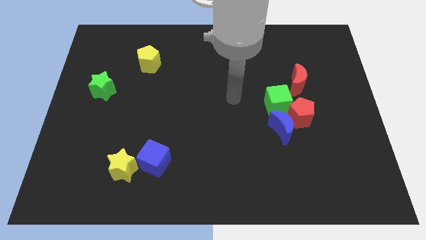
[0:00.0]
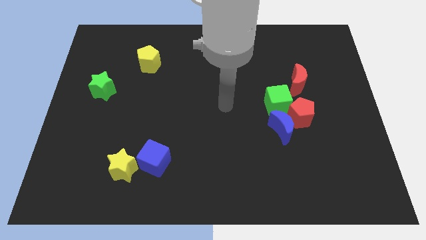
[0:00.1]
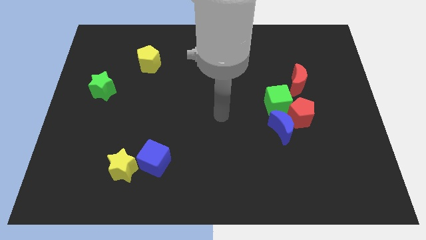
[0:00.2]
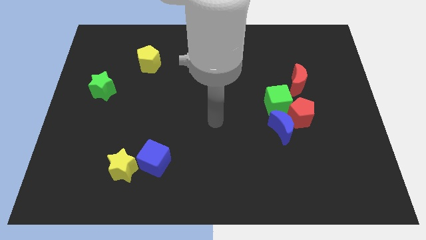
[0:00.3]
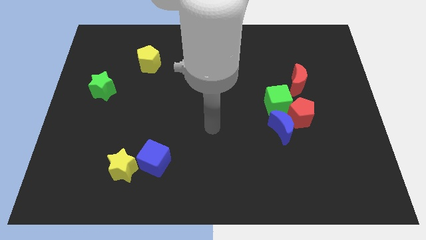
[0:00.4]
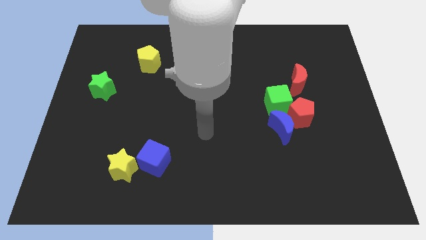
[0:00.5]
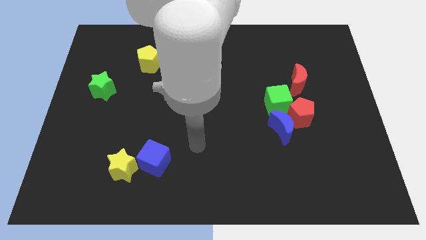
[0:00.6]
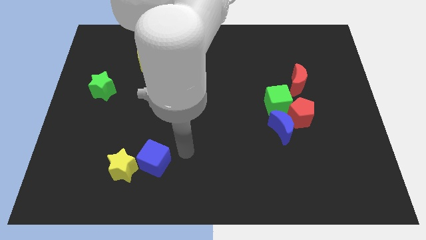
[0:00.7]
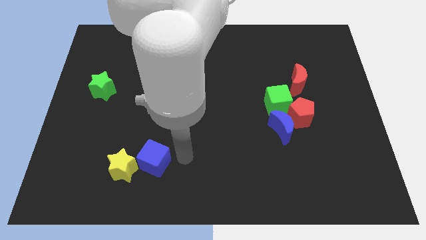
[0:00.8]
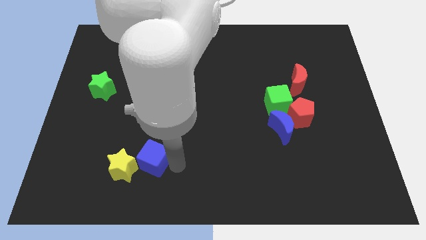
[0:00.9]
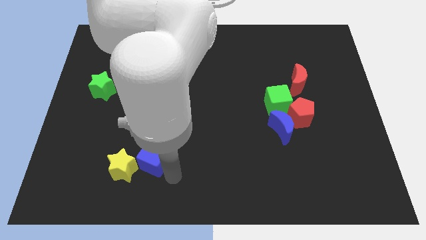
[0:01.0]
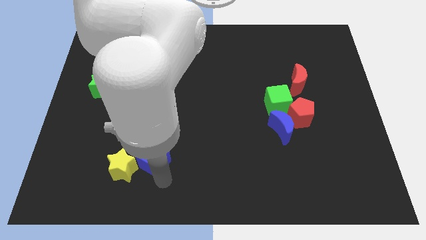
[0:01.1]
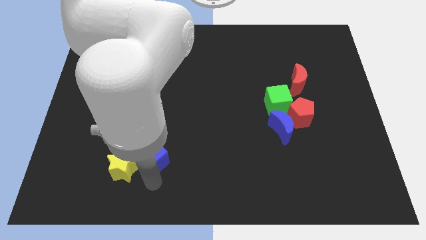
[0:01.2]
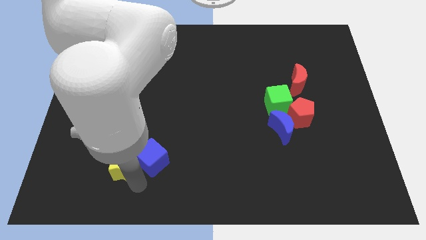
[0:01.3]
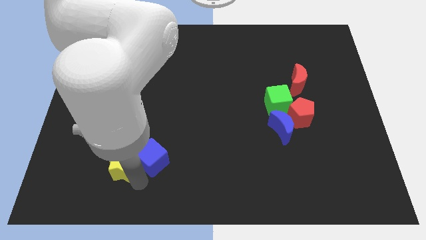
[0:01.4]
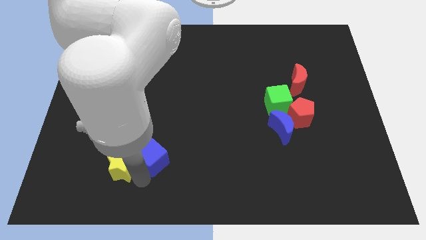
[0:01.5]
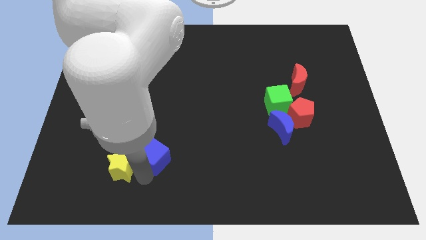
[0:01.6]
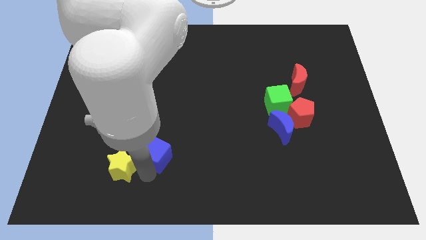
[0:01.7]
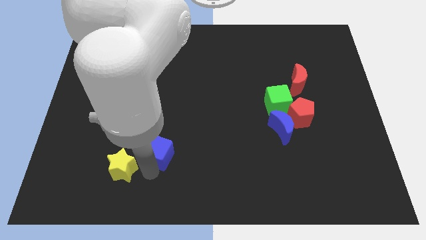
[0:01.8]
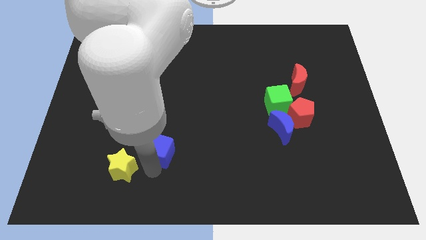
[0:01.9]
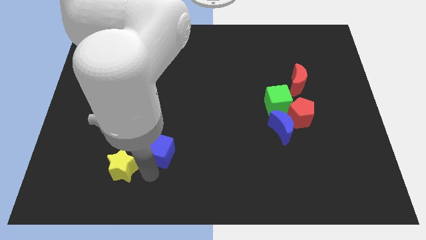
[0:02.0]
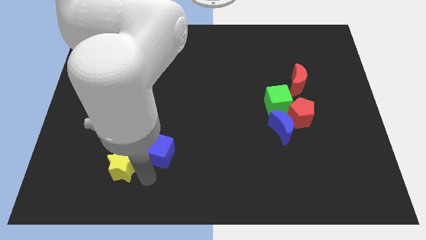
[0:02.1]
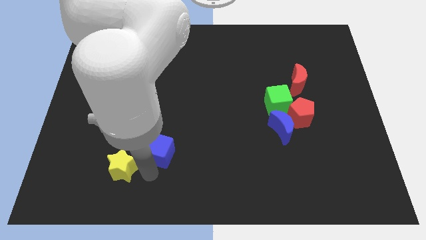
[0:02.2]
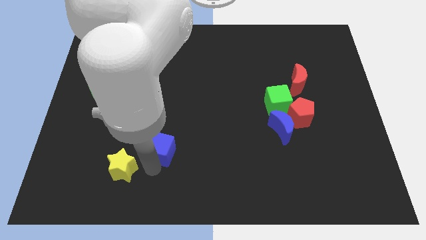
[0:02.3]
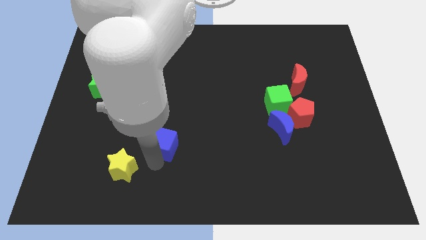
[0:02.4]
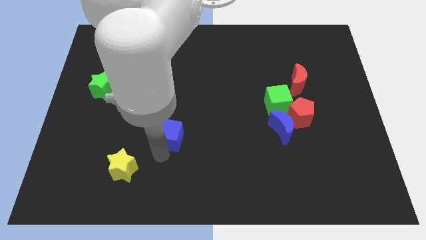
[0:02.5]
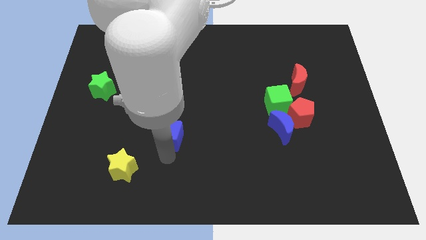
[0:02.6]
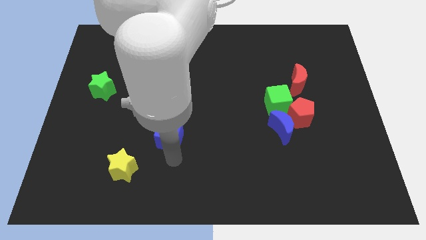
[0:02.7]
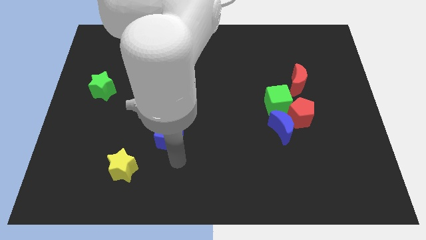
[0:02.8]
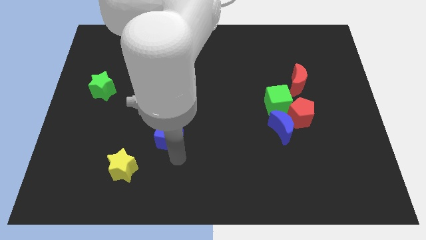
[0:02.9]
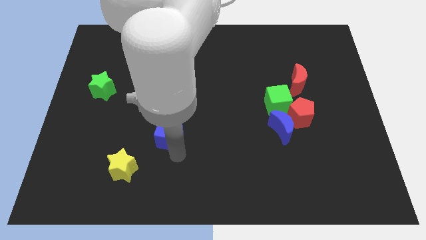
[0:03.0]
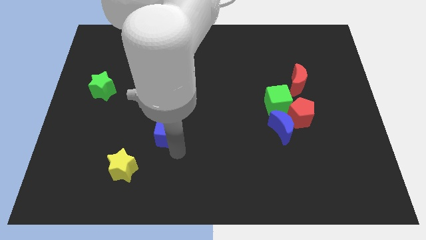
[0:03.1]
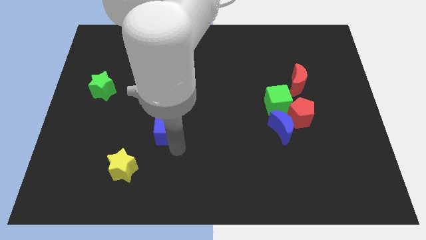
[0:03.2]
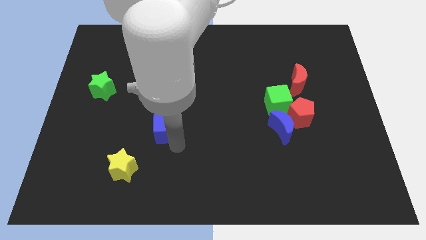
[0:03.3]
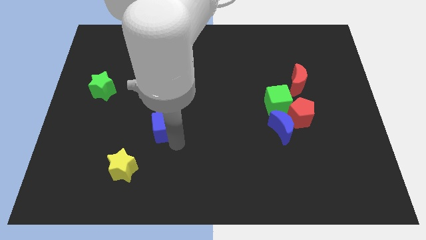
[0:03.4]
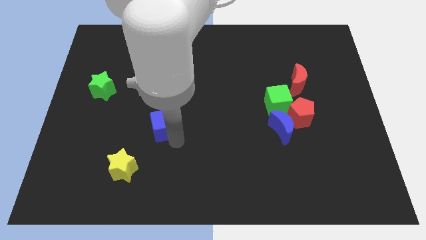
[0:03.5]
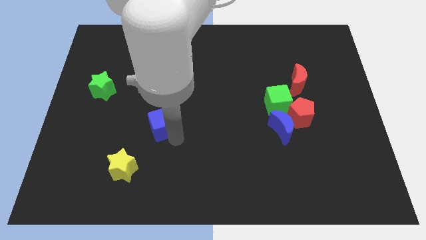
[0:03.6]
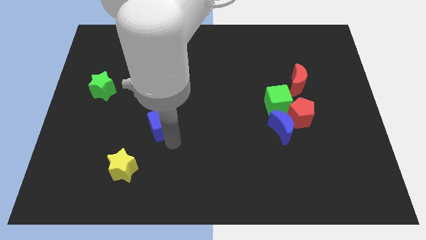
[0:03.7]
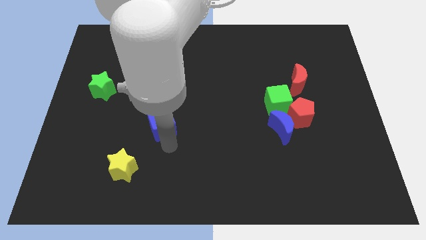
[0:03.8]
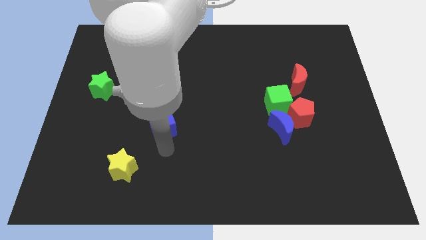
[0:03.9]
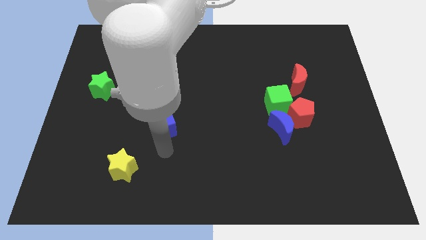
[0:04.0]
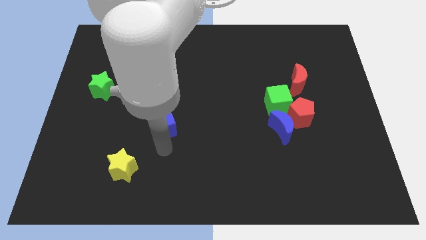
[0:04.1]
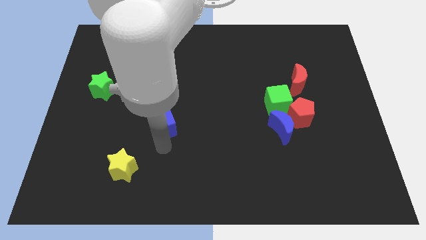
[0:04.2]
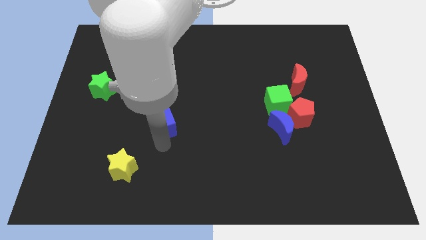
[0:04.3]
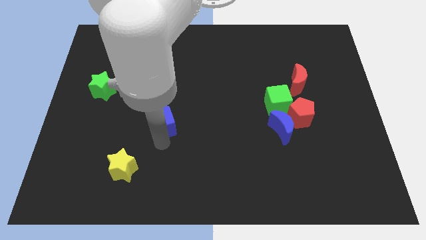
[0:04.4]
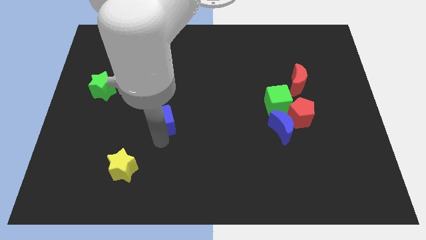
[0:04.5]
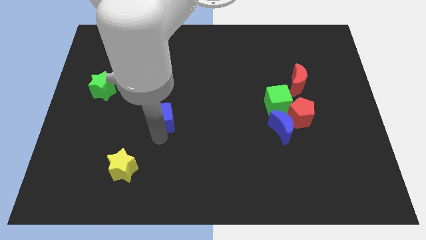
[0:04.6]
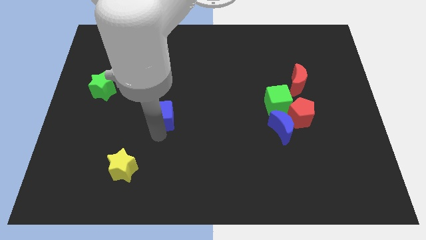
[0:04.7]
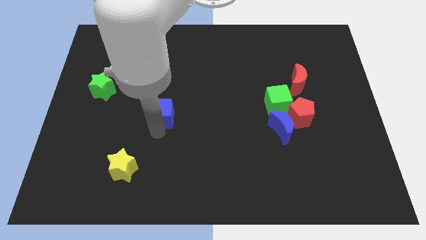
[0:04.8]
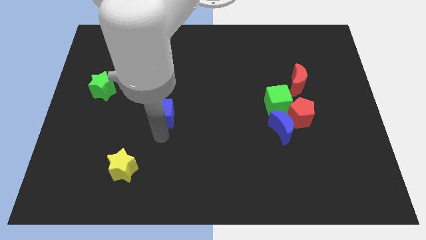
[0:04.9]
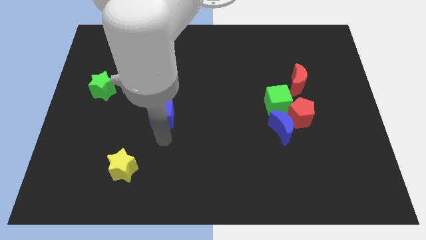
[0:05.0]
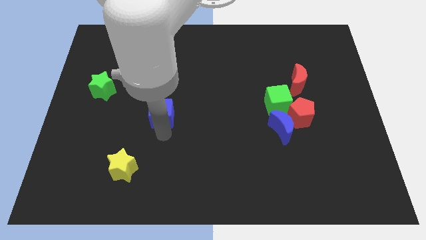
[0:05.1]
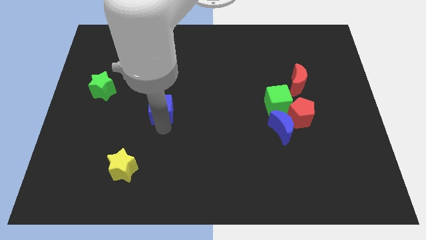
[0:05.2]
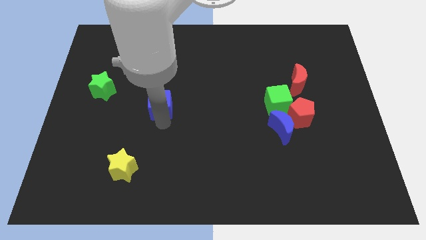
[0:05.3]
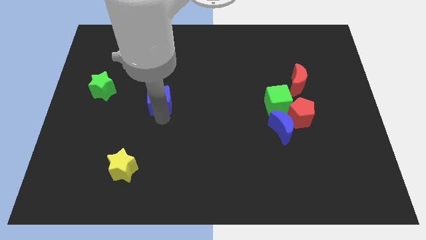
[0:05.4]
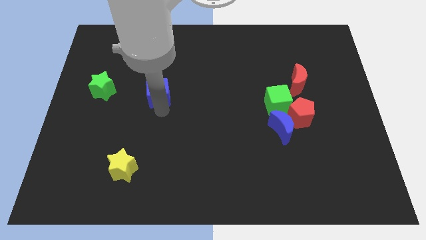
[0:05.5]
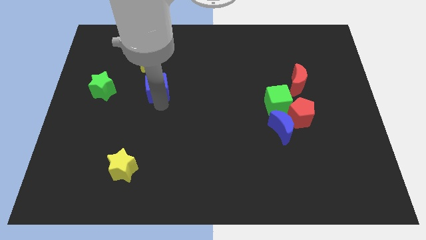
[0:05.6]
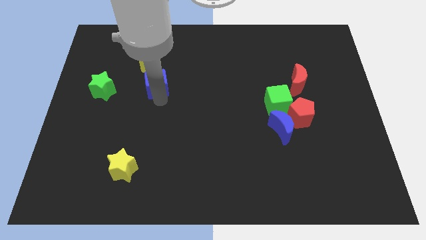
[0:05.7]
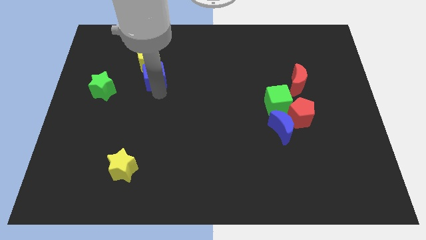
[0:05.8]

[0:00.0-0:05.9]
move the blue cube next to the yellow pentagon

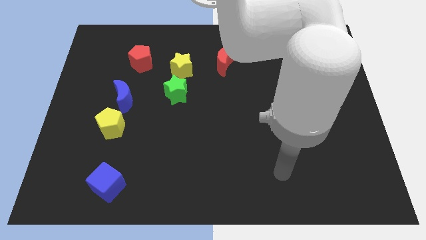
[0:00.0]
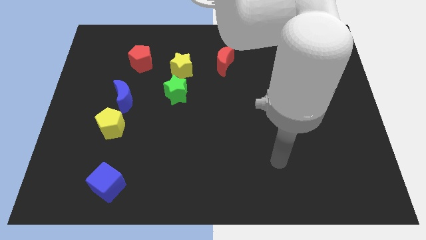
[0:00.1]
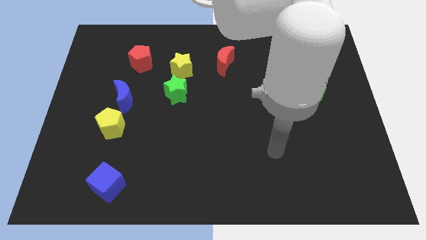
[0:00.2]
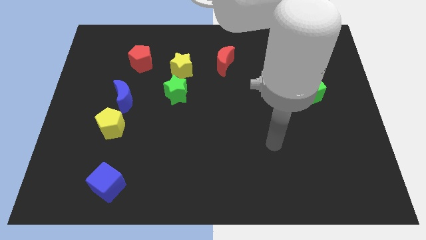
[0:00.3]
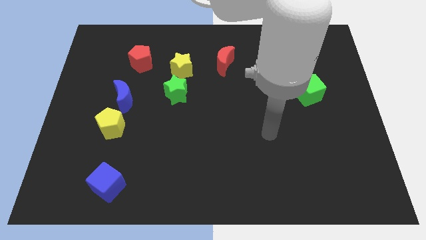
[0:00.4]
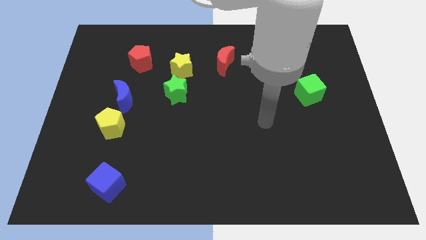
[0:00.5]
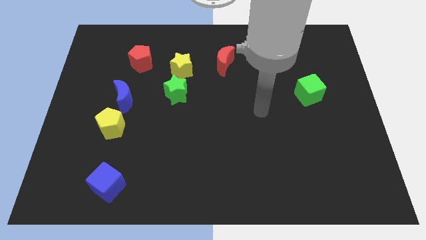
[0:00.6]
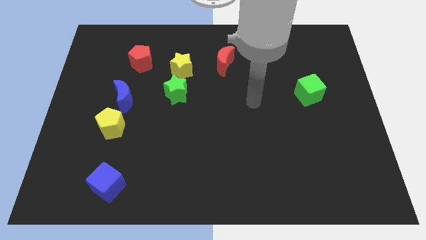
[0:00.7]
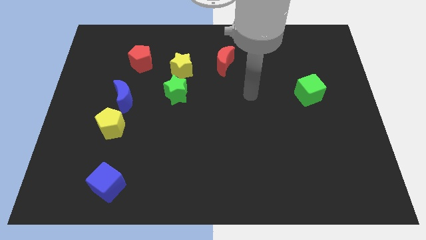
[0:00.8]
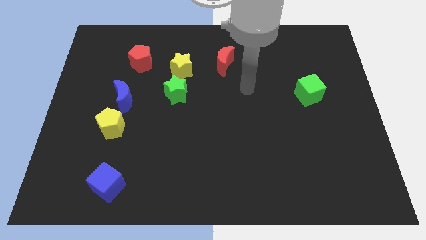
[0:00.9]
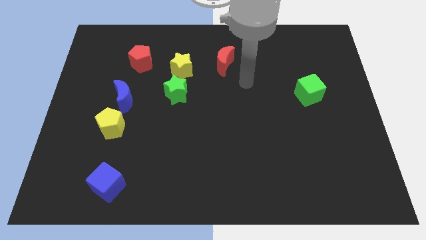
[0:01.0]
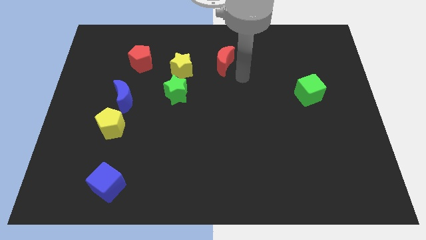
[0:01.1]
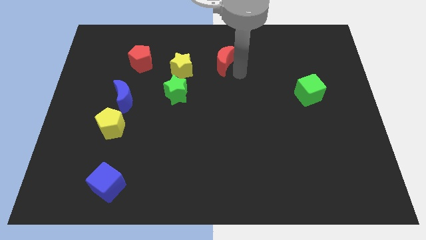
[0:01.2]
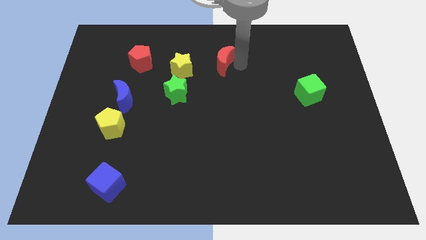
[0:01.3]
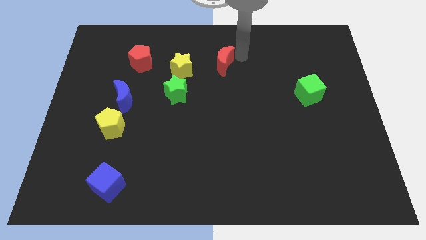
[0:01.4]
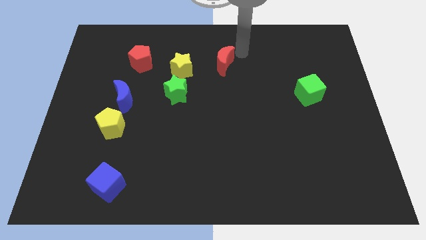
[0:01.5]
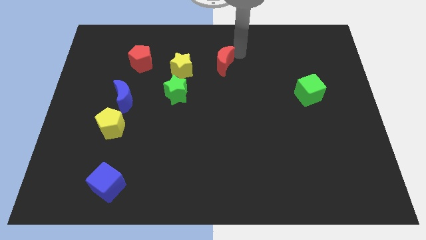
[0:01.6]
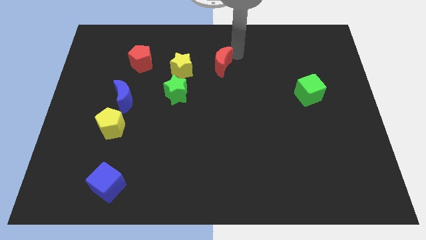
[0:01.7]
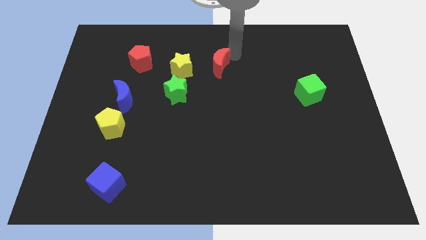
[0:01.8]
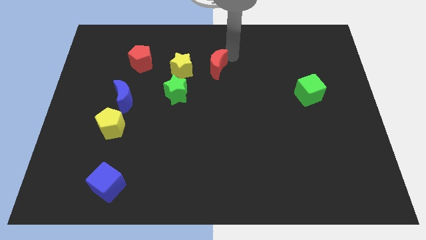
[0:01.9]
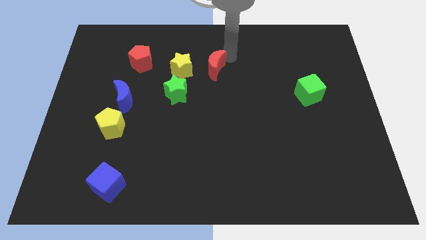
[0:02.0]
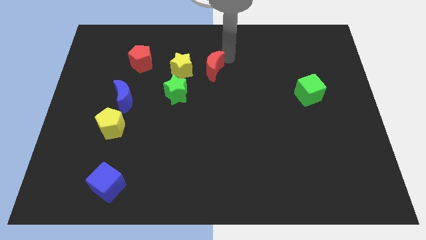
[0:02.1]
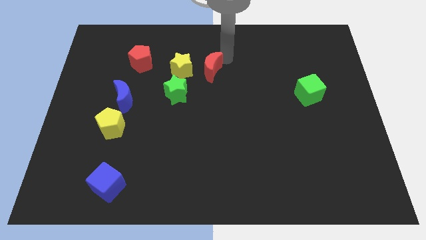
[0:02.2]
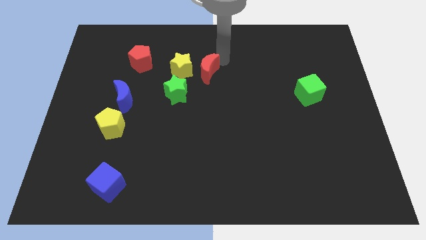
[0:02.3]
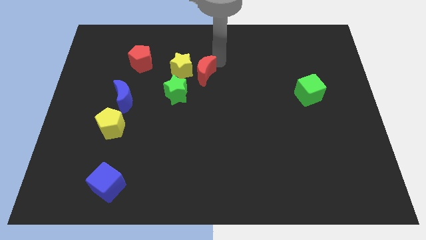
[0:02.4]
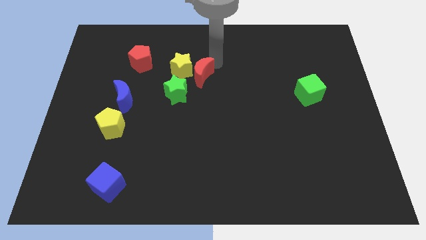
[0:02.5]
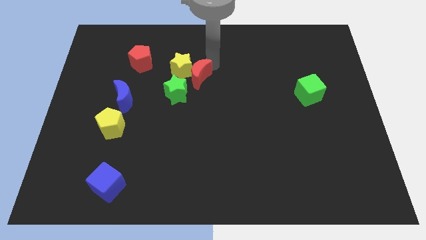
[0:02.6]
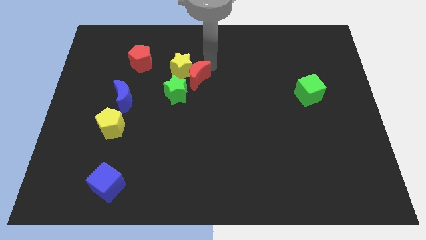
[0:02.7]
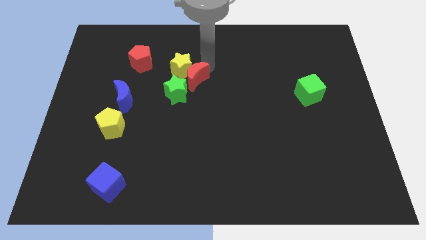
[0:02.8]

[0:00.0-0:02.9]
put the red moon towards the green star
